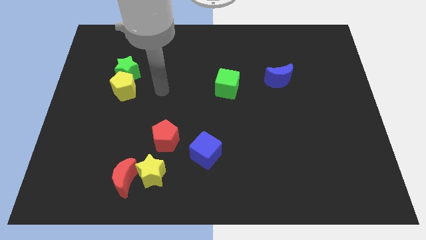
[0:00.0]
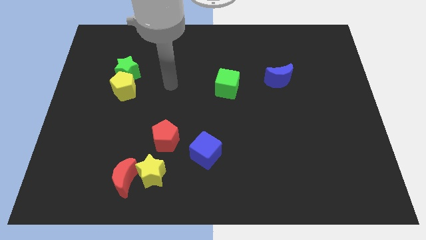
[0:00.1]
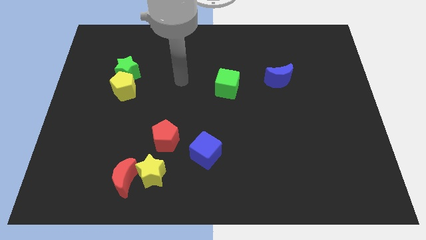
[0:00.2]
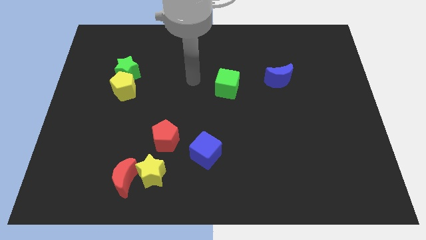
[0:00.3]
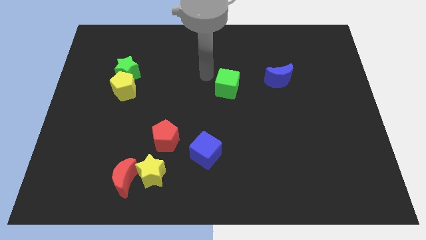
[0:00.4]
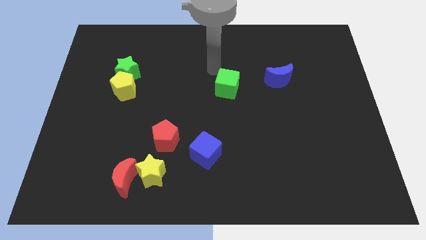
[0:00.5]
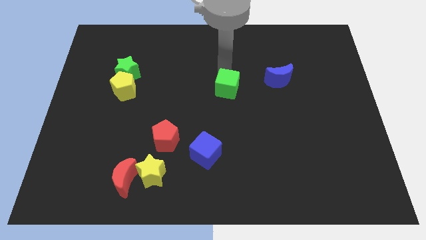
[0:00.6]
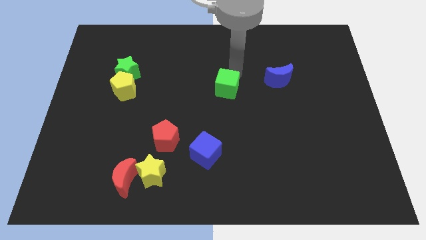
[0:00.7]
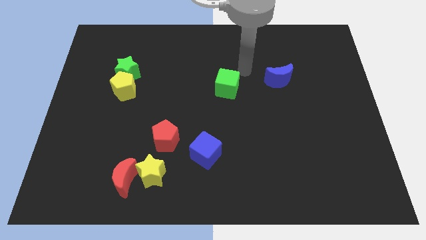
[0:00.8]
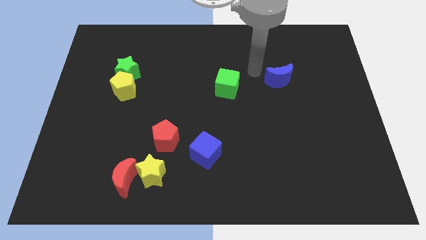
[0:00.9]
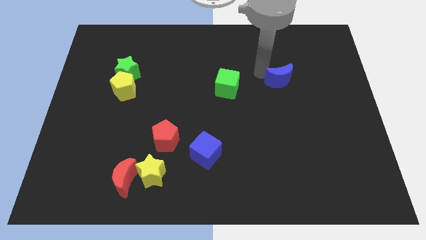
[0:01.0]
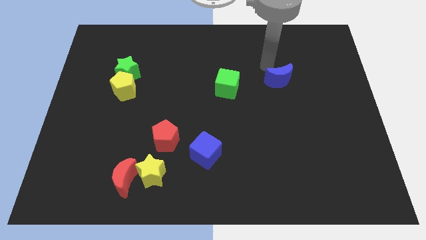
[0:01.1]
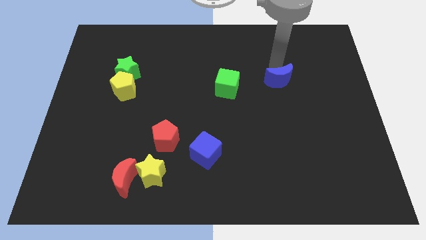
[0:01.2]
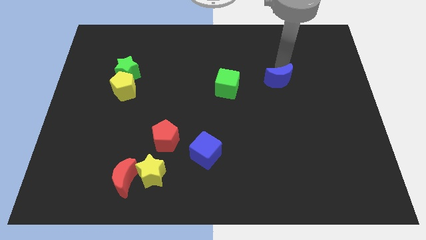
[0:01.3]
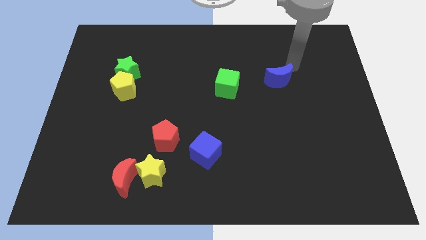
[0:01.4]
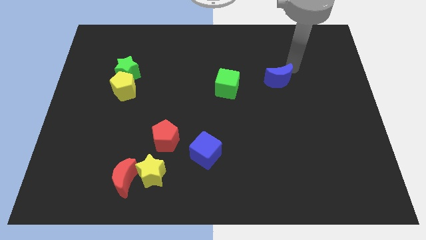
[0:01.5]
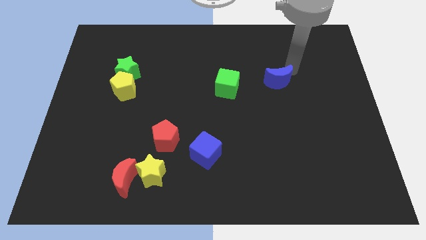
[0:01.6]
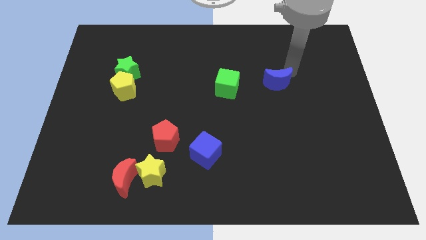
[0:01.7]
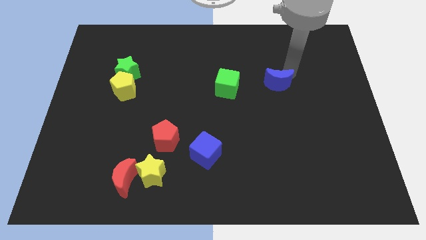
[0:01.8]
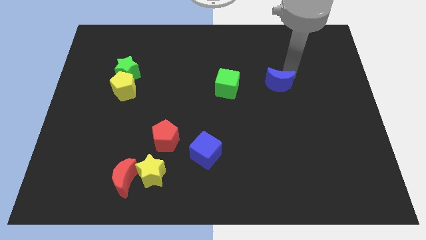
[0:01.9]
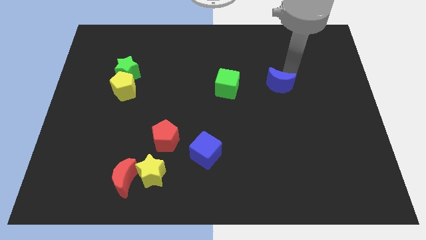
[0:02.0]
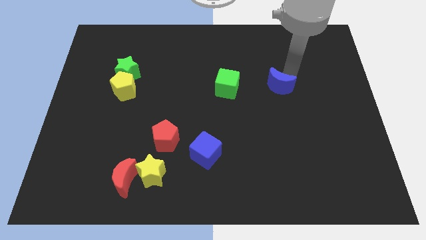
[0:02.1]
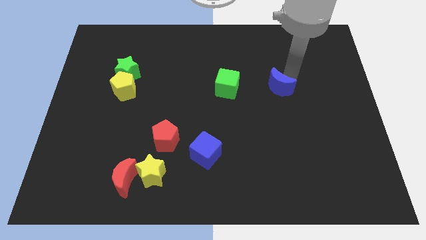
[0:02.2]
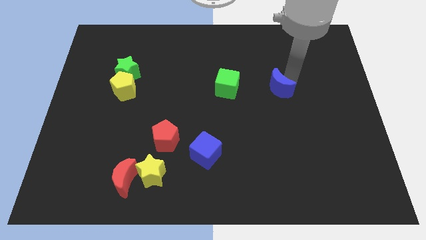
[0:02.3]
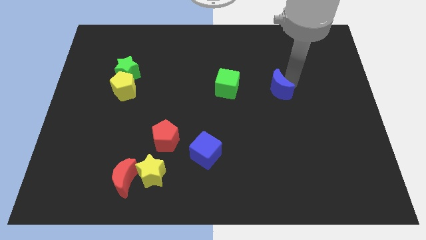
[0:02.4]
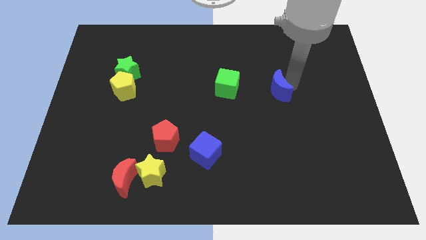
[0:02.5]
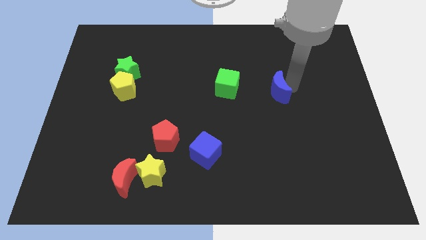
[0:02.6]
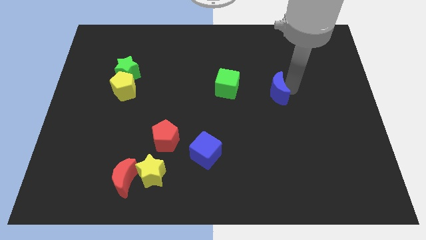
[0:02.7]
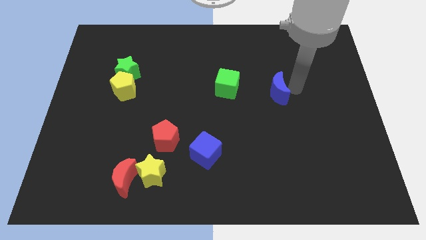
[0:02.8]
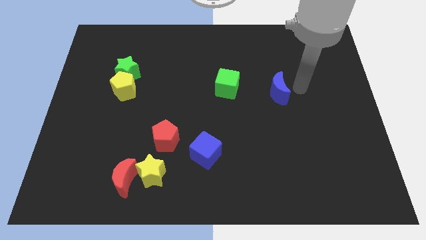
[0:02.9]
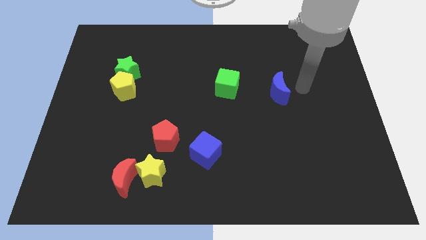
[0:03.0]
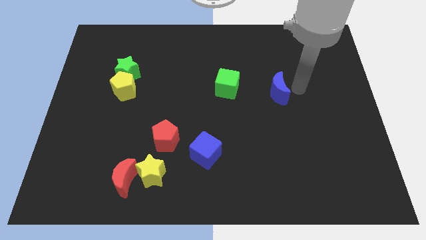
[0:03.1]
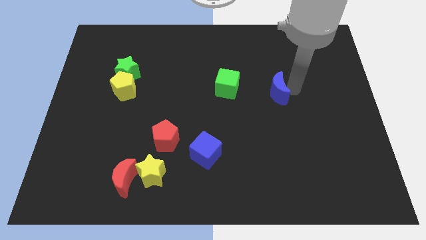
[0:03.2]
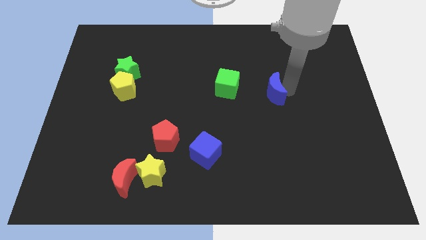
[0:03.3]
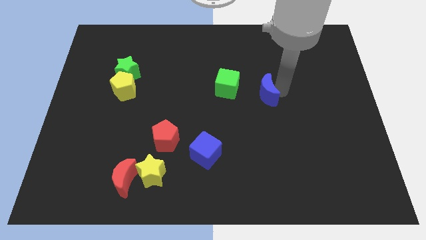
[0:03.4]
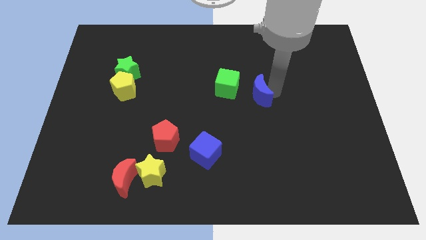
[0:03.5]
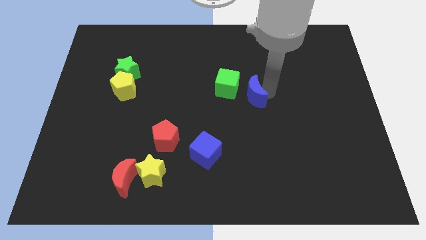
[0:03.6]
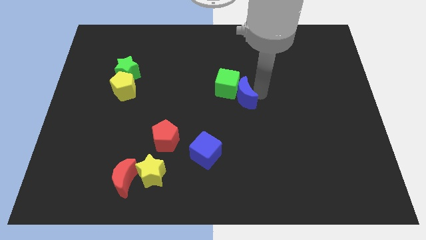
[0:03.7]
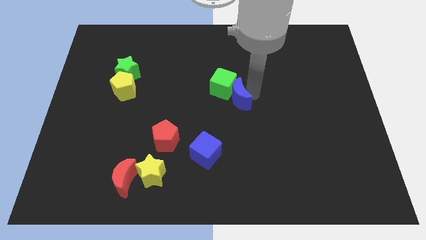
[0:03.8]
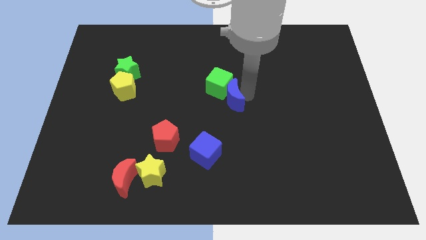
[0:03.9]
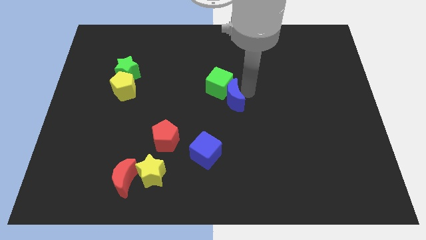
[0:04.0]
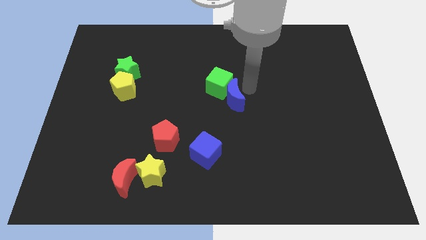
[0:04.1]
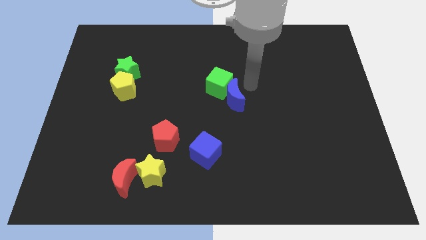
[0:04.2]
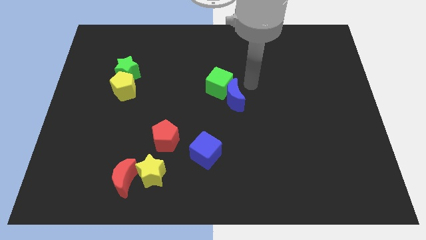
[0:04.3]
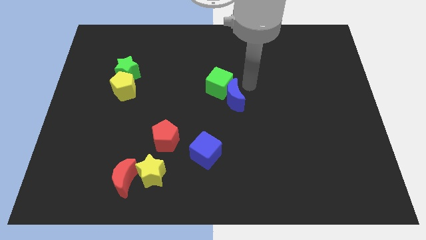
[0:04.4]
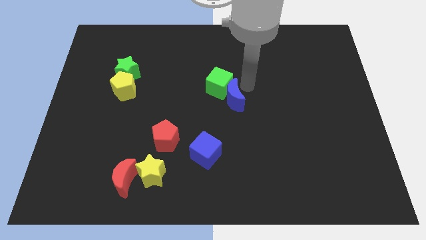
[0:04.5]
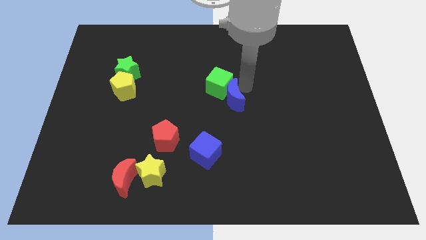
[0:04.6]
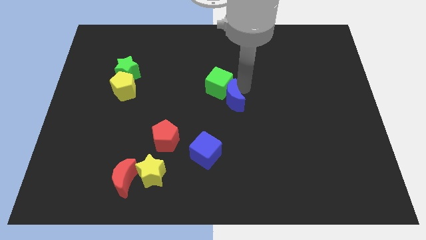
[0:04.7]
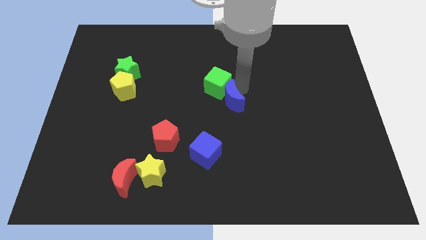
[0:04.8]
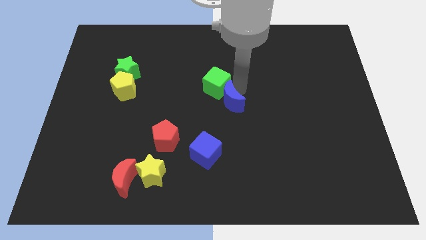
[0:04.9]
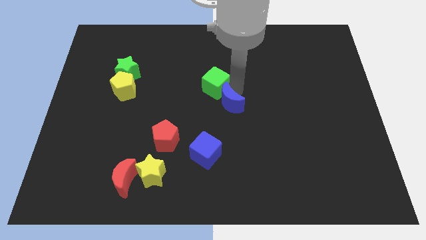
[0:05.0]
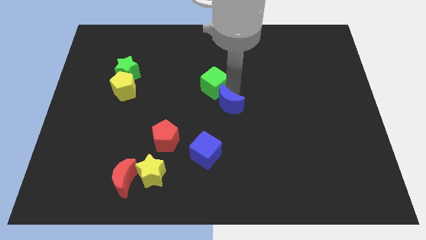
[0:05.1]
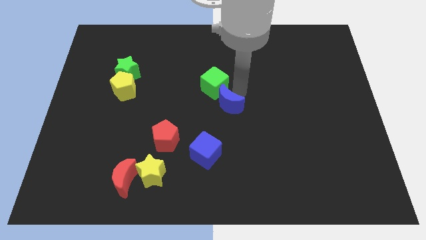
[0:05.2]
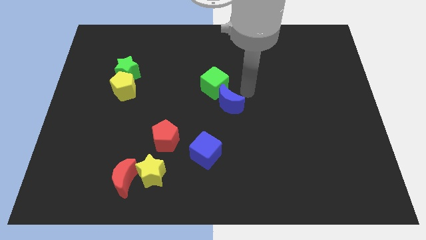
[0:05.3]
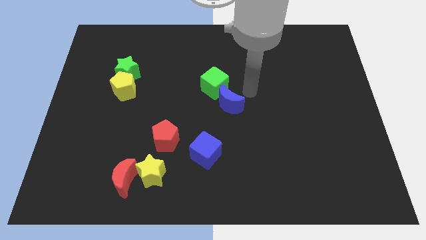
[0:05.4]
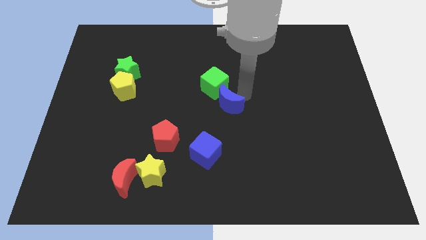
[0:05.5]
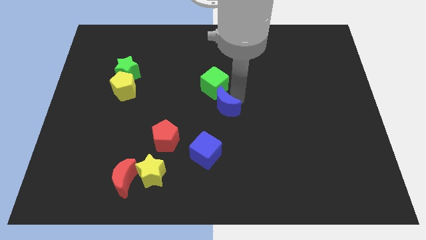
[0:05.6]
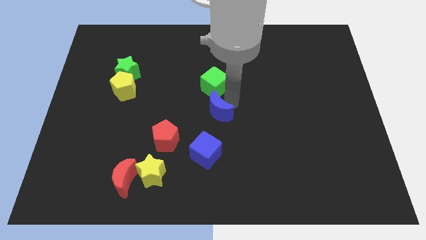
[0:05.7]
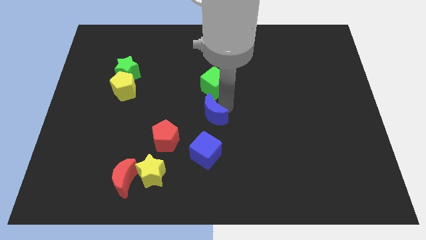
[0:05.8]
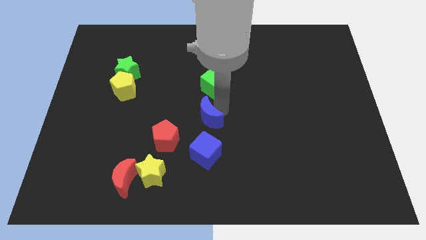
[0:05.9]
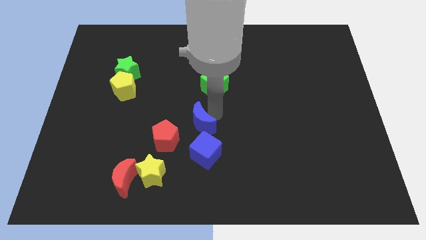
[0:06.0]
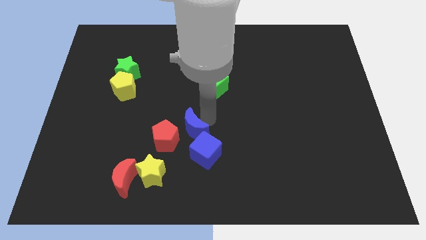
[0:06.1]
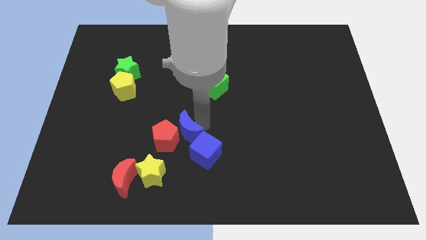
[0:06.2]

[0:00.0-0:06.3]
put the blue moon next to the red pentagon

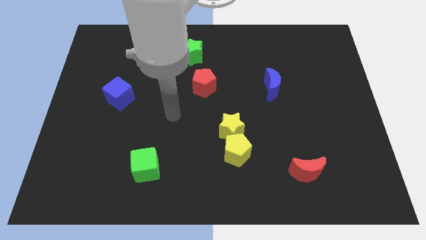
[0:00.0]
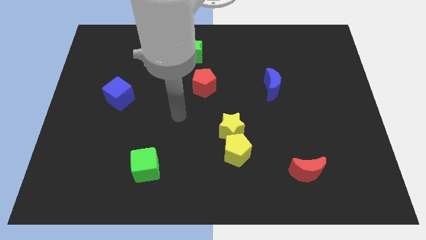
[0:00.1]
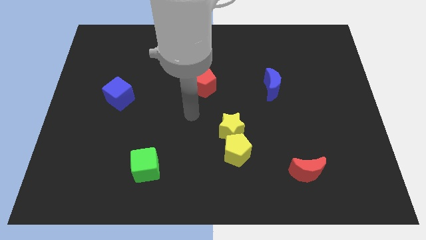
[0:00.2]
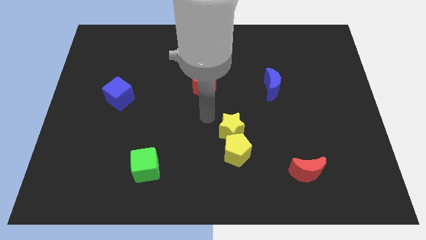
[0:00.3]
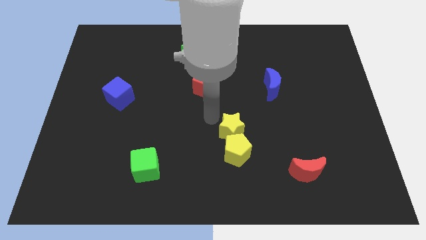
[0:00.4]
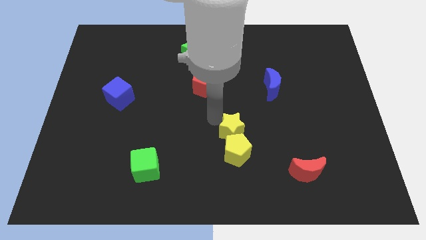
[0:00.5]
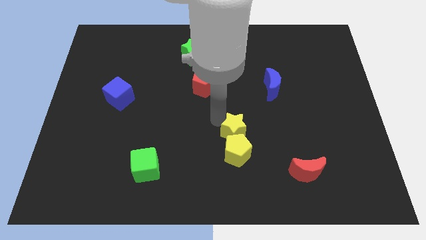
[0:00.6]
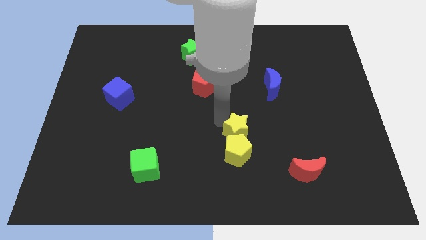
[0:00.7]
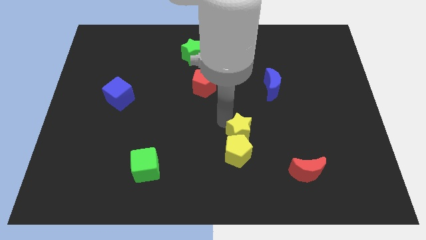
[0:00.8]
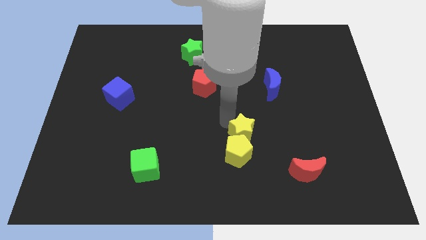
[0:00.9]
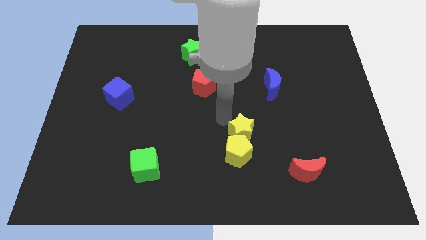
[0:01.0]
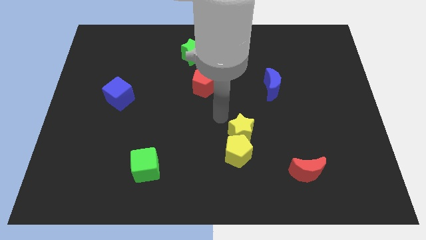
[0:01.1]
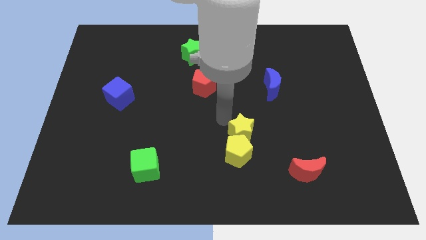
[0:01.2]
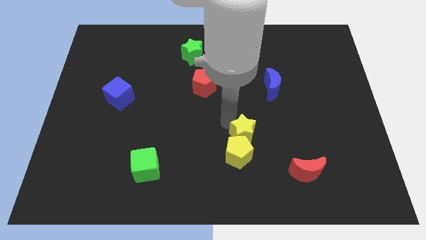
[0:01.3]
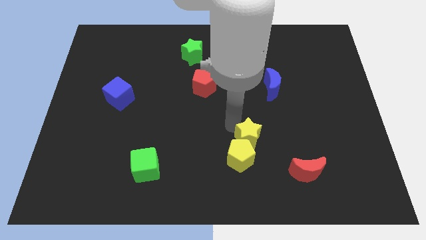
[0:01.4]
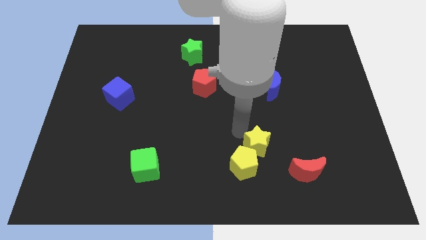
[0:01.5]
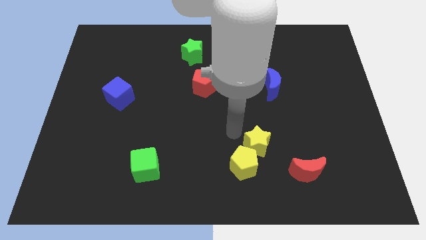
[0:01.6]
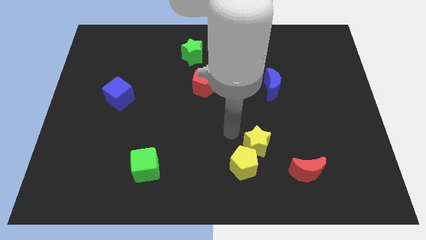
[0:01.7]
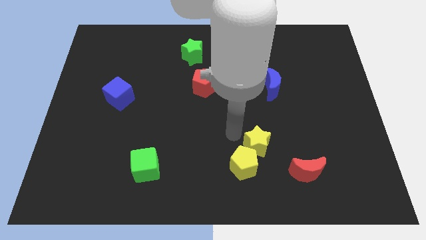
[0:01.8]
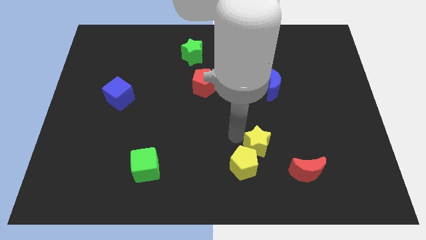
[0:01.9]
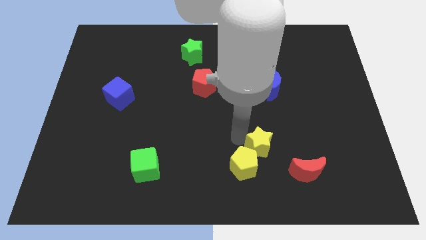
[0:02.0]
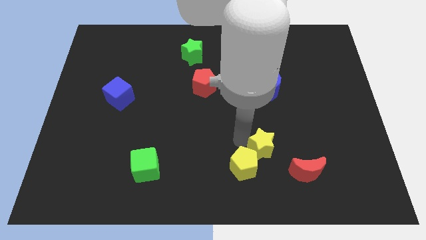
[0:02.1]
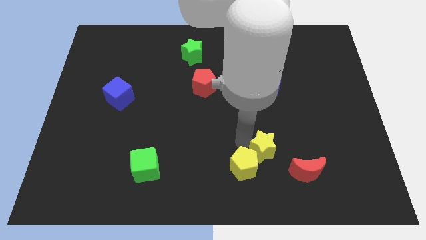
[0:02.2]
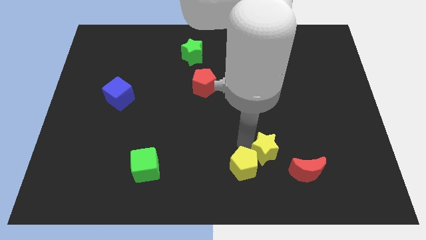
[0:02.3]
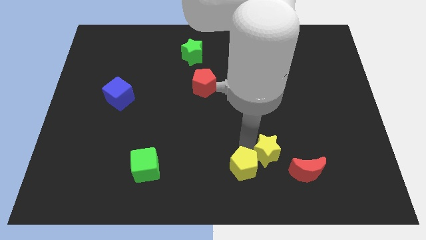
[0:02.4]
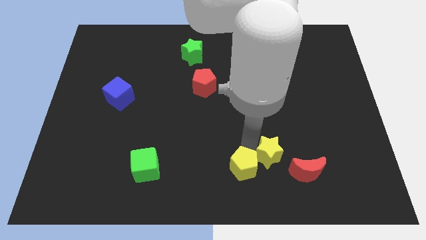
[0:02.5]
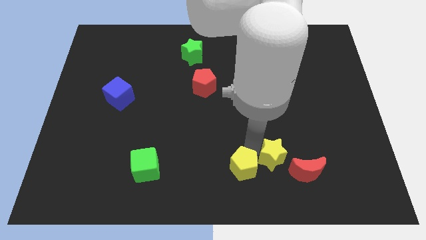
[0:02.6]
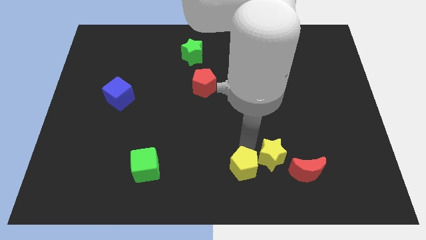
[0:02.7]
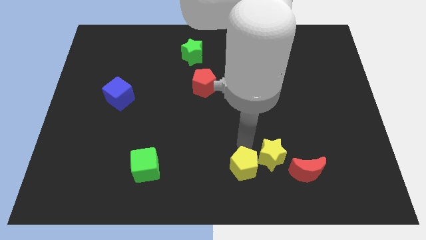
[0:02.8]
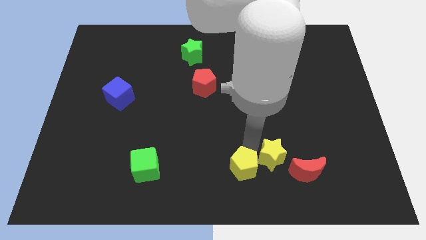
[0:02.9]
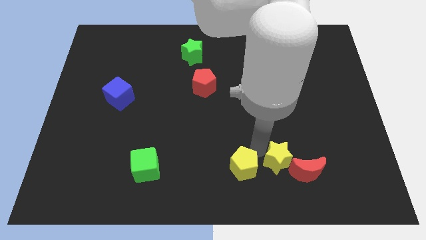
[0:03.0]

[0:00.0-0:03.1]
move the yellow star towards the red moon
